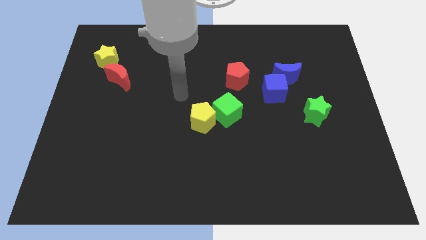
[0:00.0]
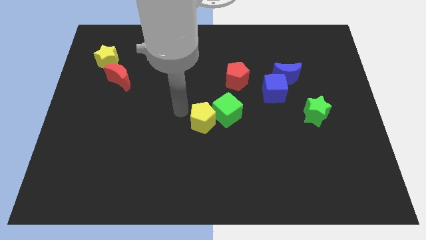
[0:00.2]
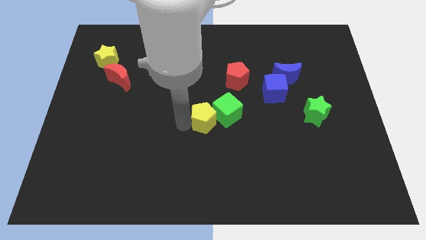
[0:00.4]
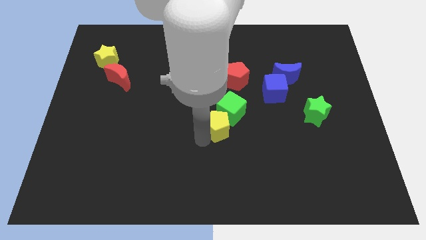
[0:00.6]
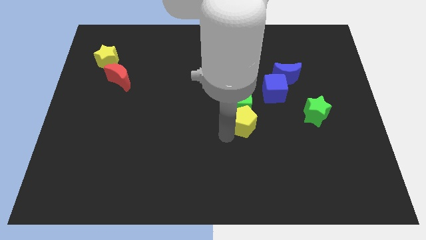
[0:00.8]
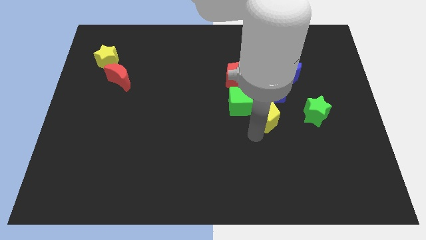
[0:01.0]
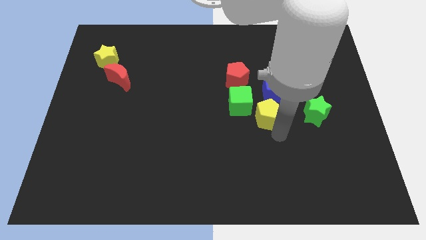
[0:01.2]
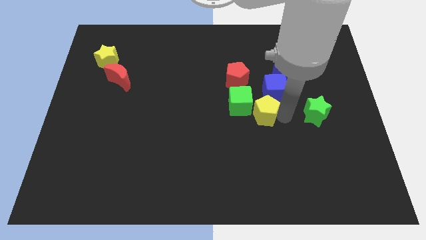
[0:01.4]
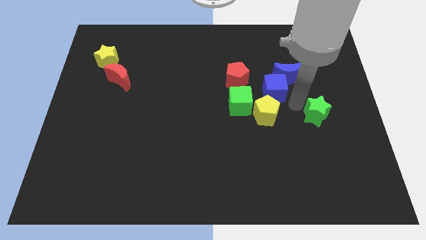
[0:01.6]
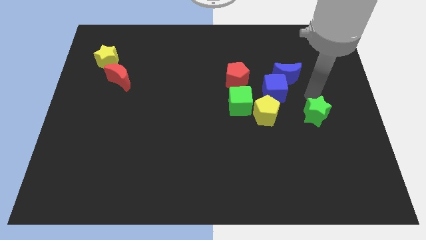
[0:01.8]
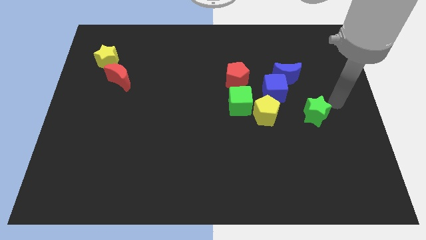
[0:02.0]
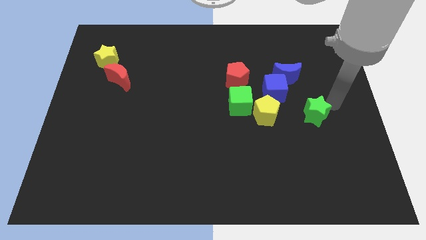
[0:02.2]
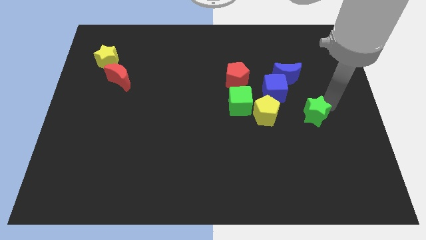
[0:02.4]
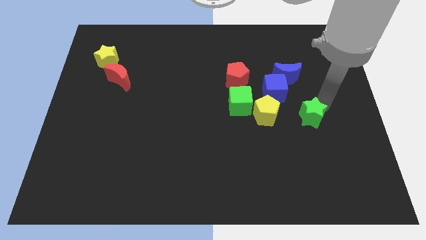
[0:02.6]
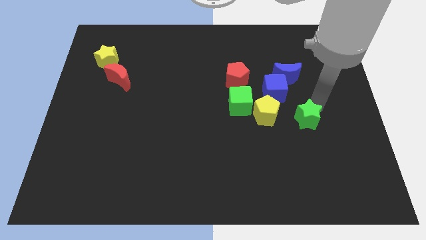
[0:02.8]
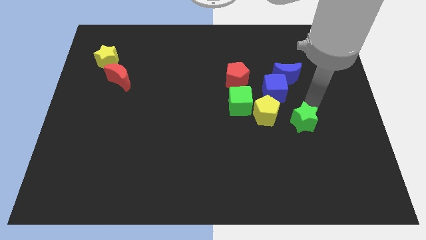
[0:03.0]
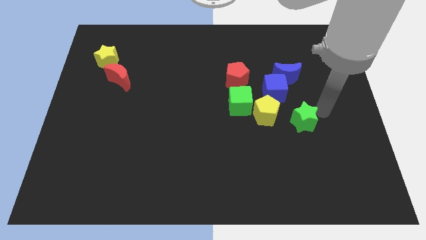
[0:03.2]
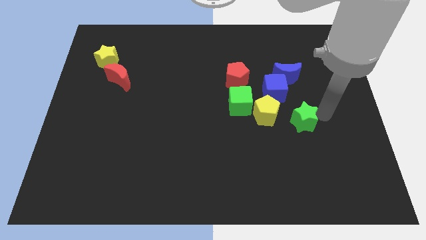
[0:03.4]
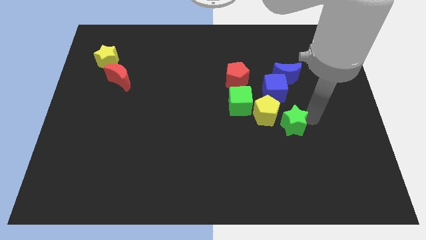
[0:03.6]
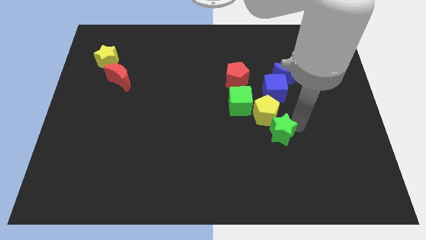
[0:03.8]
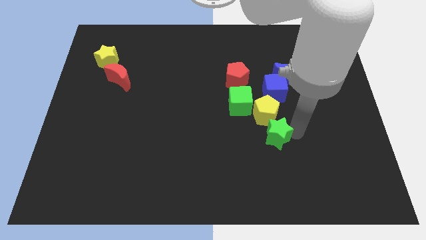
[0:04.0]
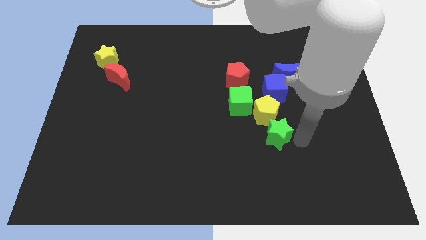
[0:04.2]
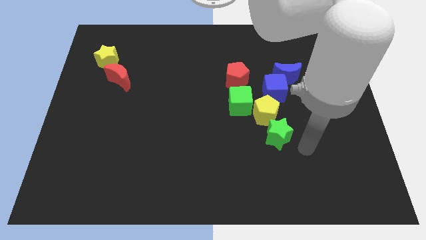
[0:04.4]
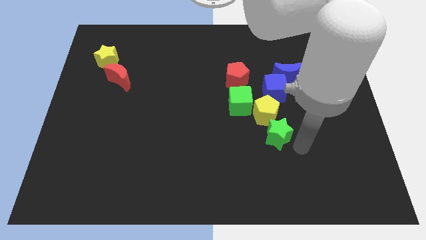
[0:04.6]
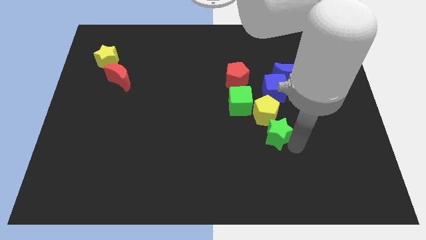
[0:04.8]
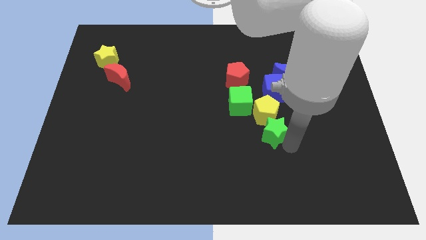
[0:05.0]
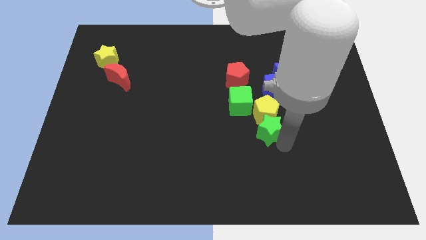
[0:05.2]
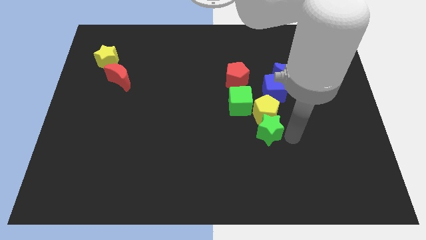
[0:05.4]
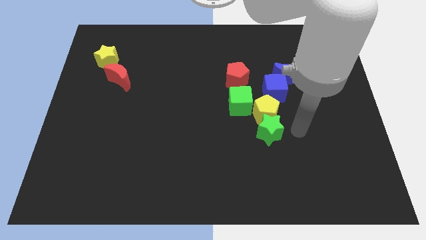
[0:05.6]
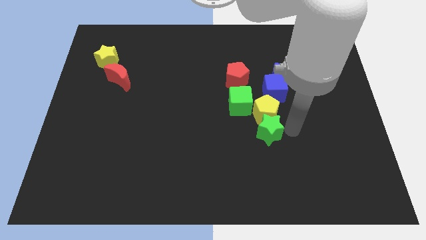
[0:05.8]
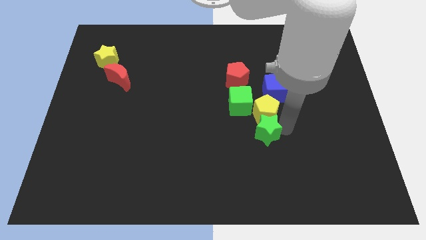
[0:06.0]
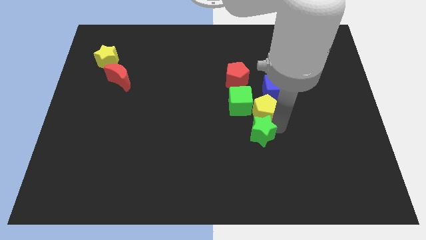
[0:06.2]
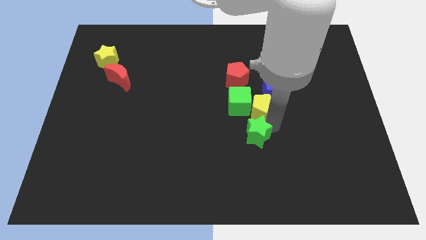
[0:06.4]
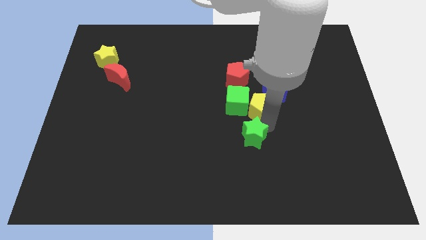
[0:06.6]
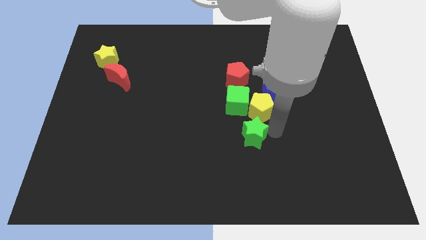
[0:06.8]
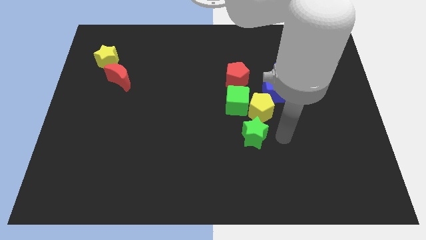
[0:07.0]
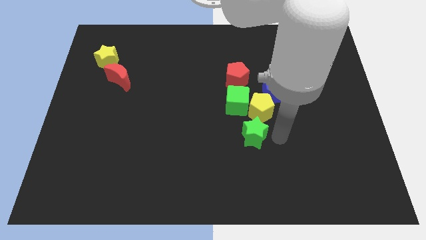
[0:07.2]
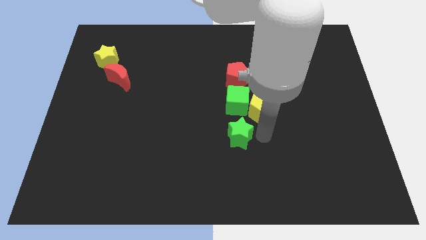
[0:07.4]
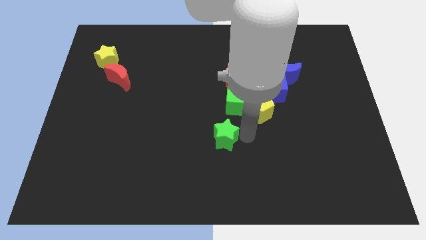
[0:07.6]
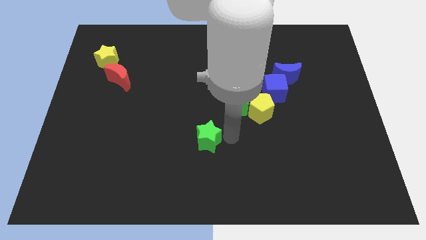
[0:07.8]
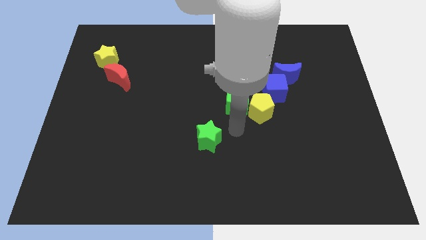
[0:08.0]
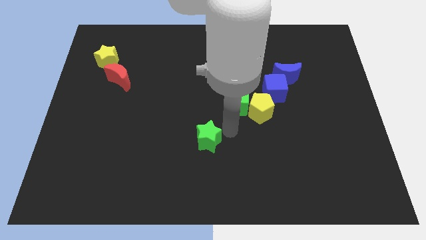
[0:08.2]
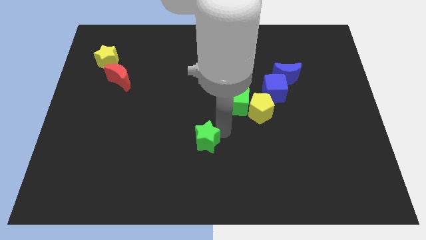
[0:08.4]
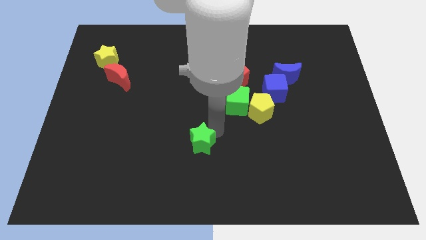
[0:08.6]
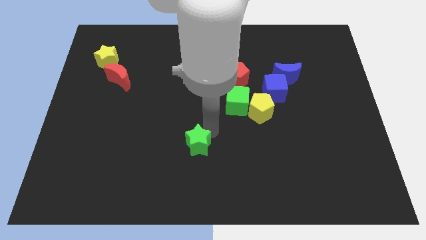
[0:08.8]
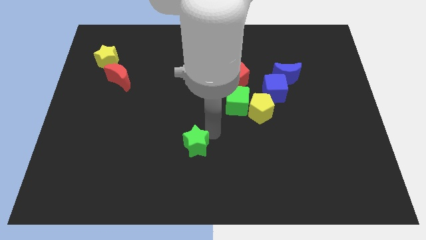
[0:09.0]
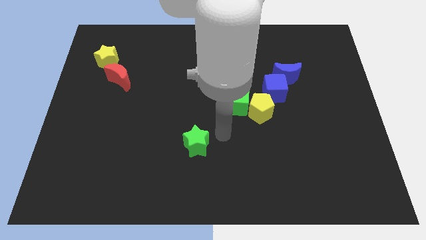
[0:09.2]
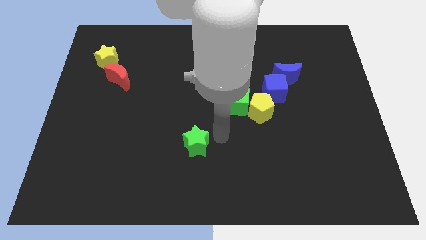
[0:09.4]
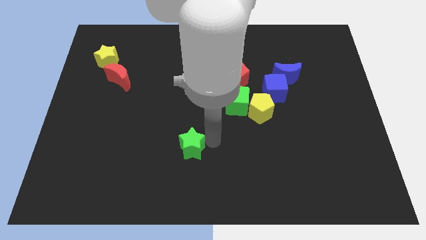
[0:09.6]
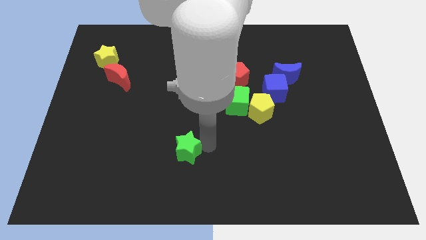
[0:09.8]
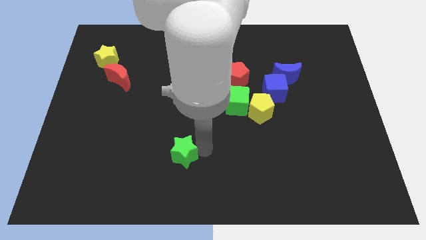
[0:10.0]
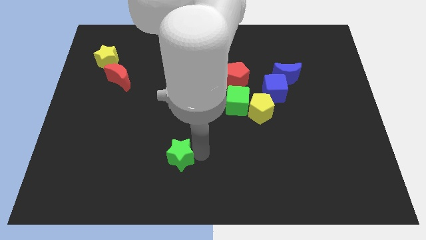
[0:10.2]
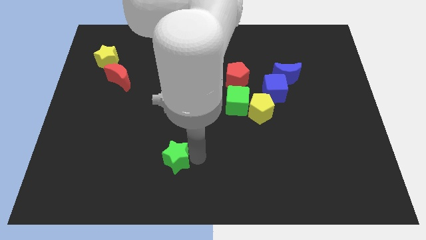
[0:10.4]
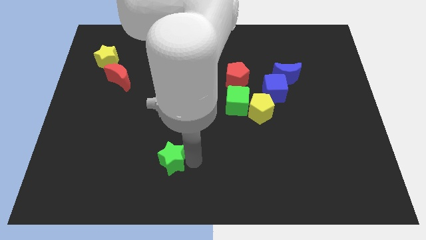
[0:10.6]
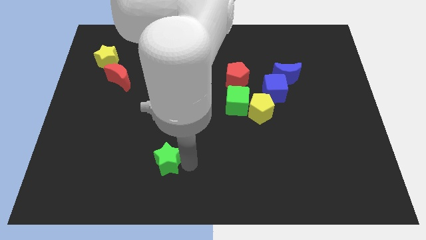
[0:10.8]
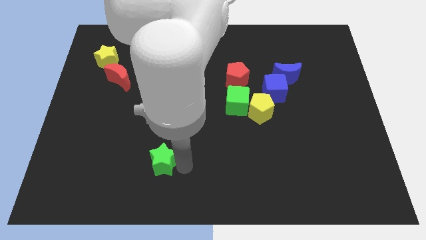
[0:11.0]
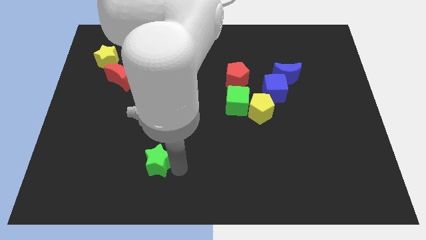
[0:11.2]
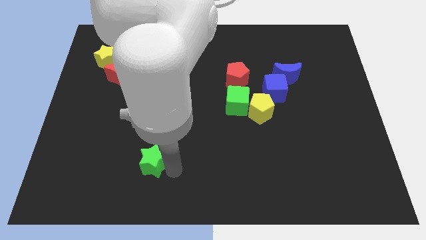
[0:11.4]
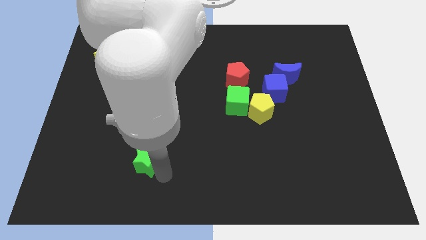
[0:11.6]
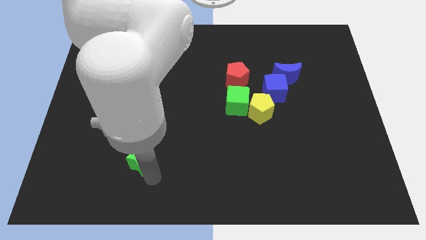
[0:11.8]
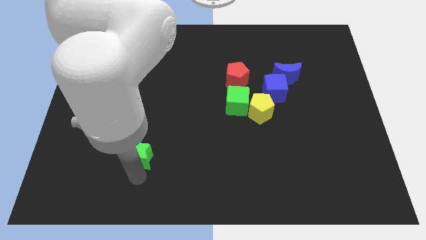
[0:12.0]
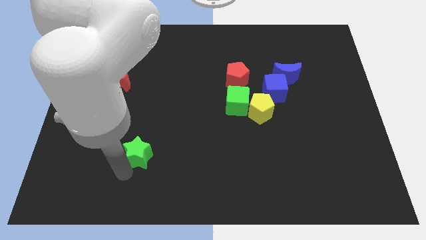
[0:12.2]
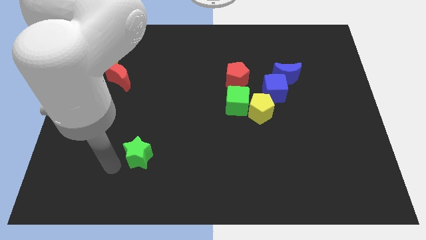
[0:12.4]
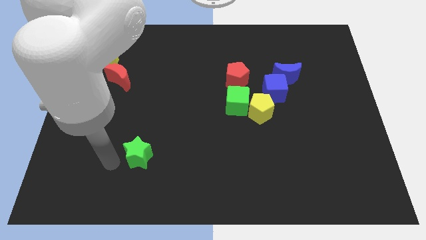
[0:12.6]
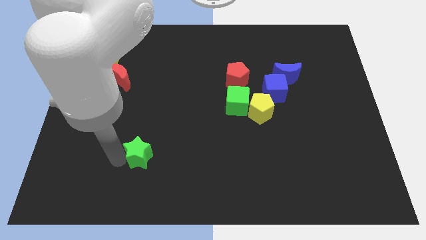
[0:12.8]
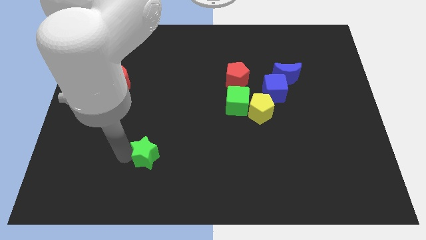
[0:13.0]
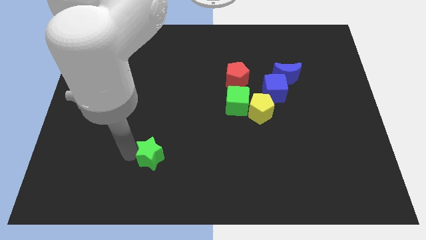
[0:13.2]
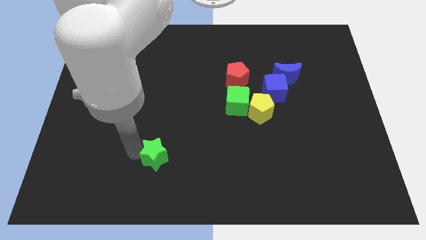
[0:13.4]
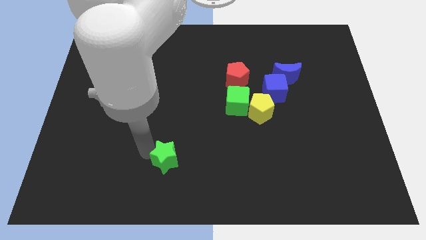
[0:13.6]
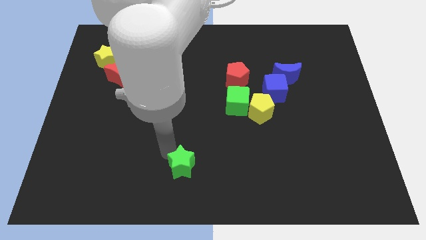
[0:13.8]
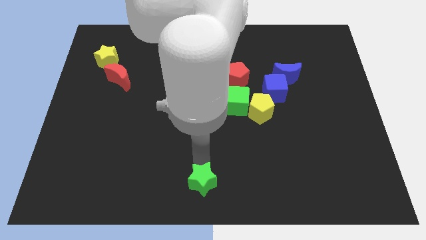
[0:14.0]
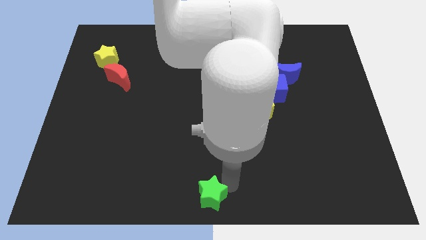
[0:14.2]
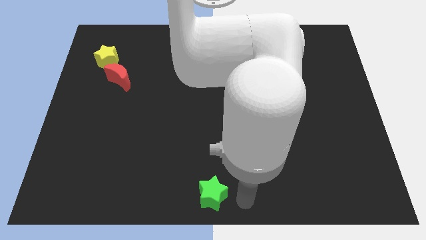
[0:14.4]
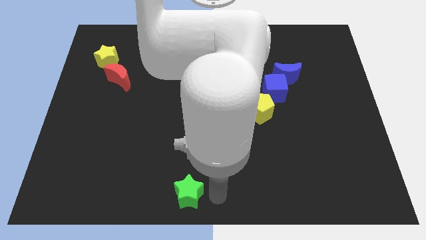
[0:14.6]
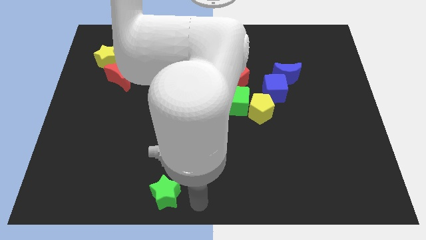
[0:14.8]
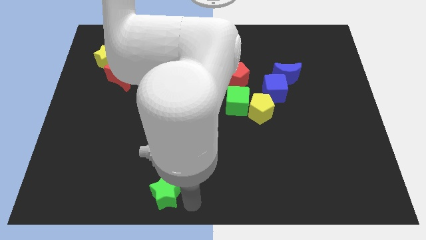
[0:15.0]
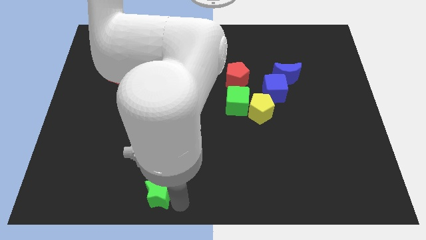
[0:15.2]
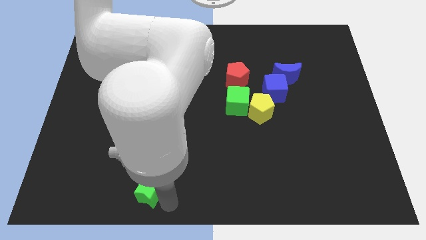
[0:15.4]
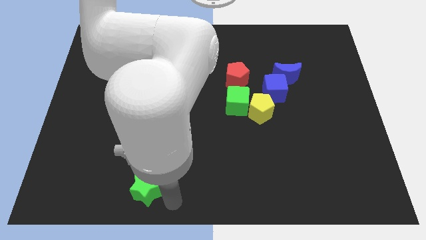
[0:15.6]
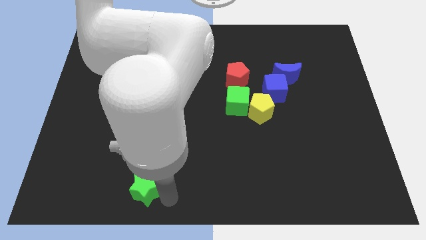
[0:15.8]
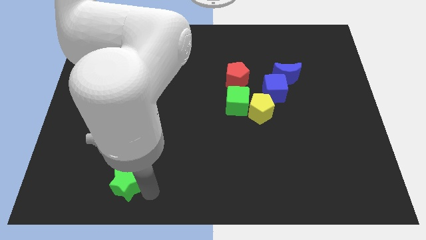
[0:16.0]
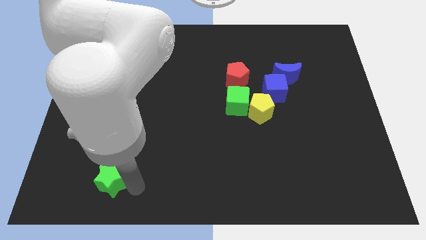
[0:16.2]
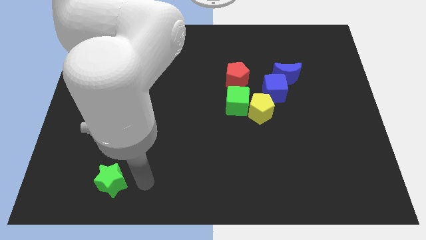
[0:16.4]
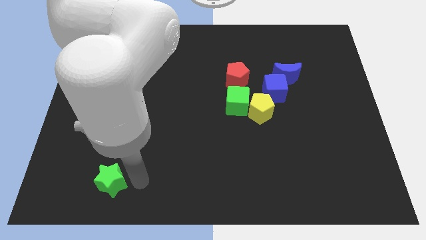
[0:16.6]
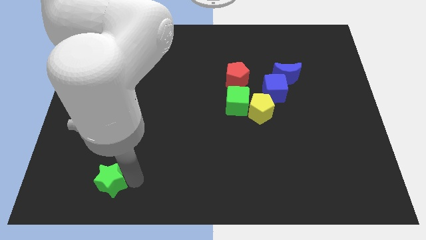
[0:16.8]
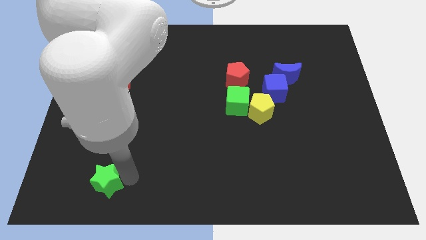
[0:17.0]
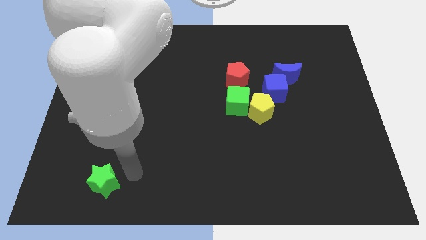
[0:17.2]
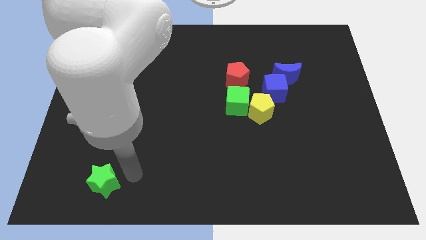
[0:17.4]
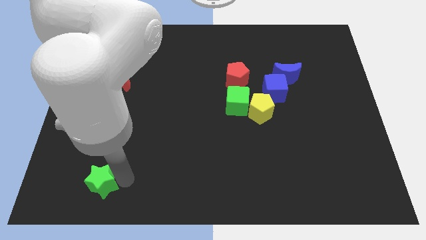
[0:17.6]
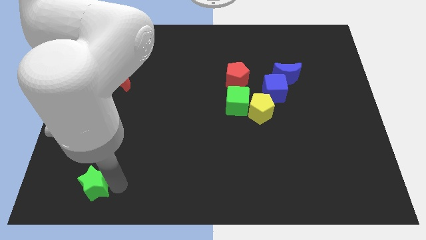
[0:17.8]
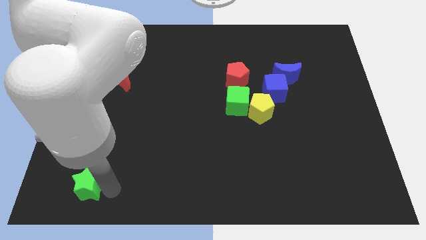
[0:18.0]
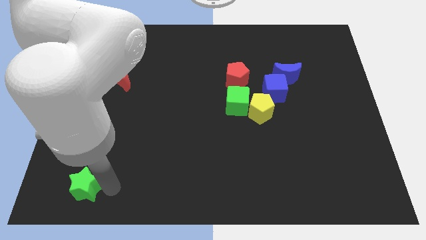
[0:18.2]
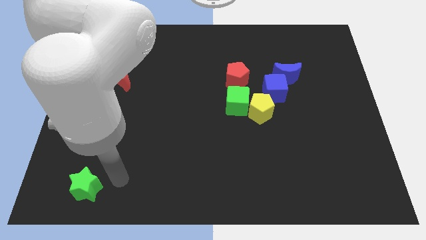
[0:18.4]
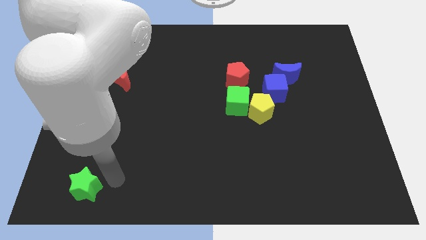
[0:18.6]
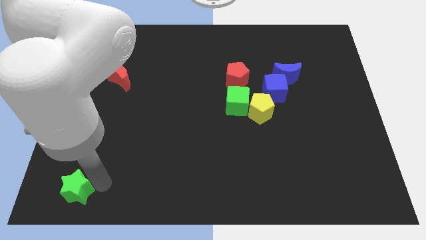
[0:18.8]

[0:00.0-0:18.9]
put the green star to the lower left corner
